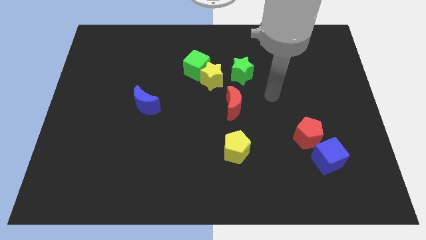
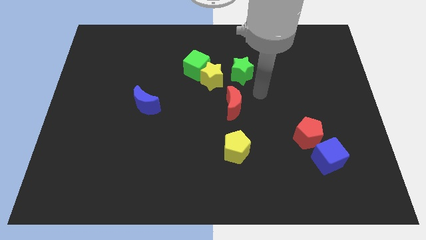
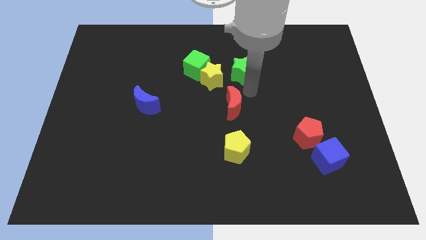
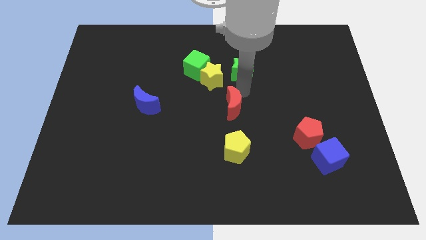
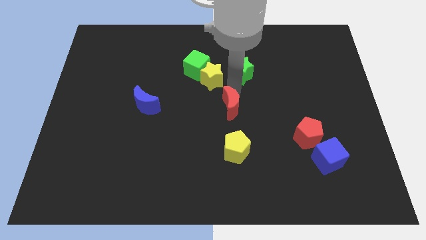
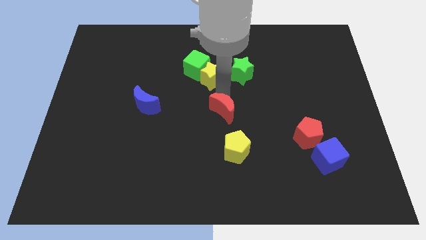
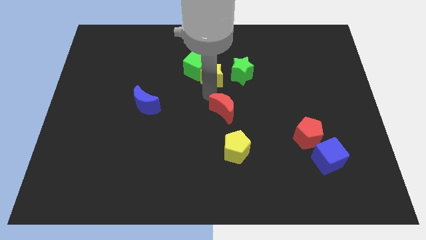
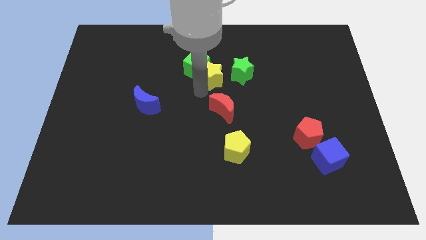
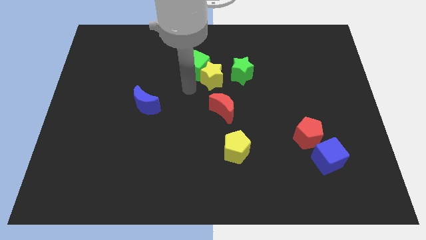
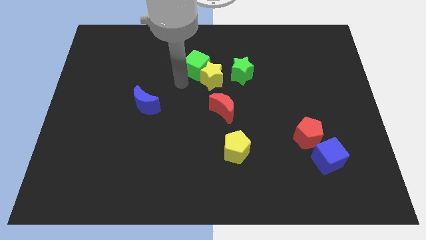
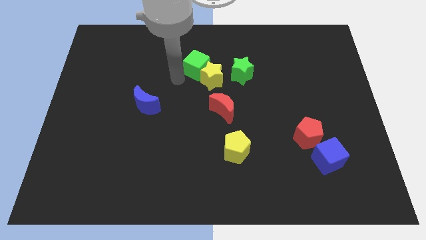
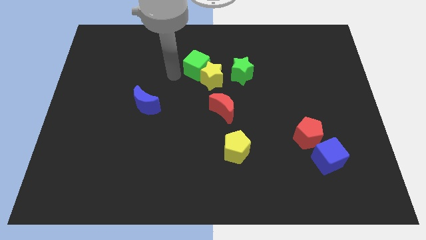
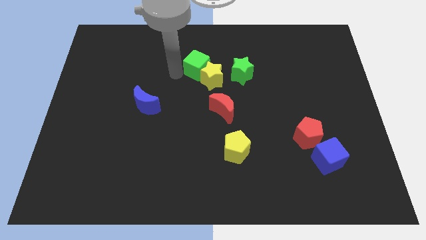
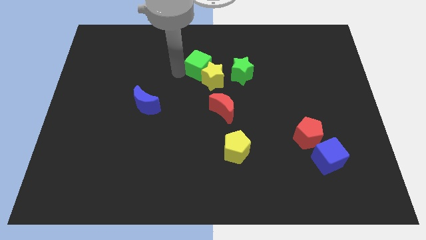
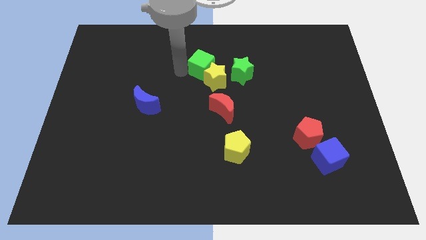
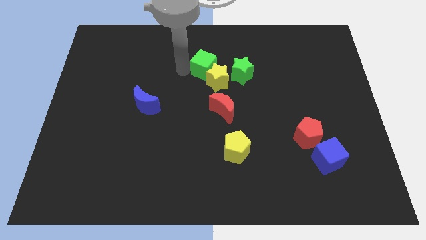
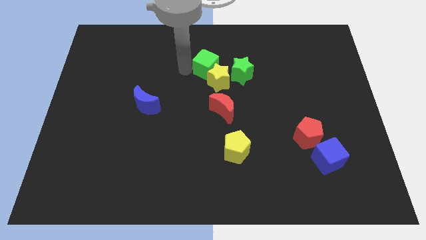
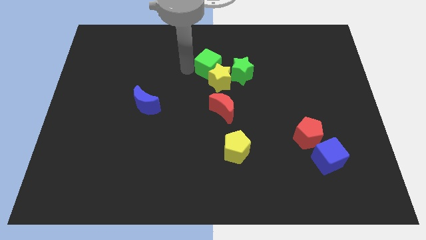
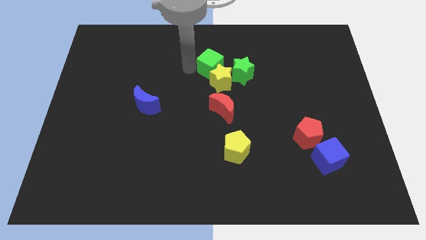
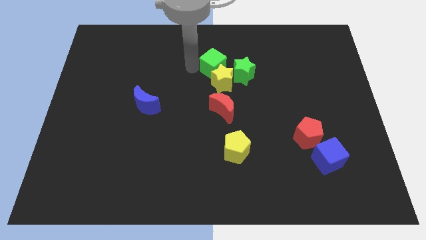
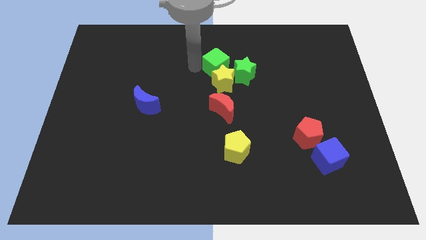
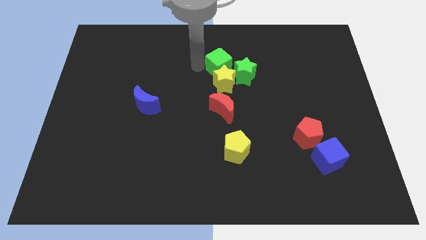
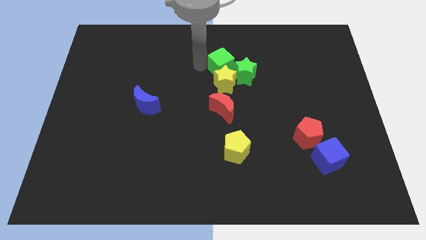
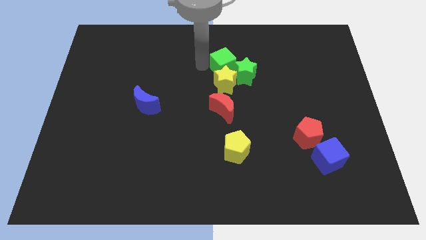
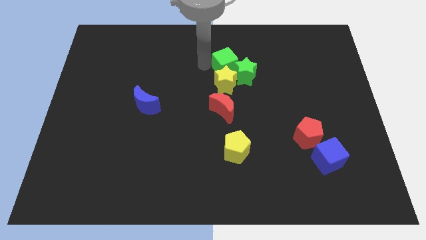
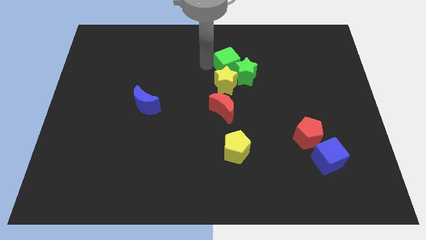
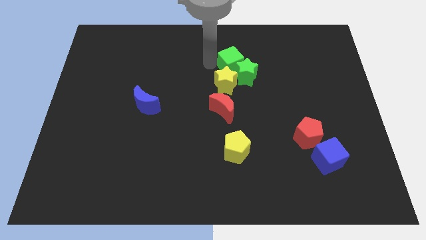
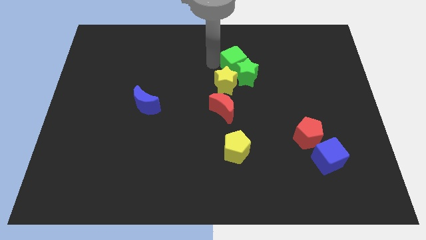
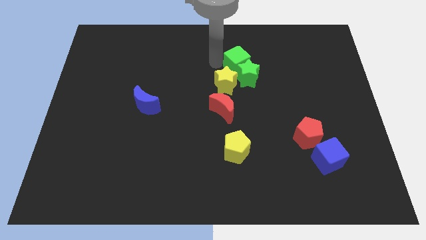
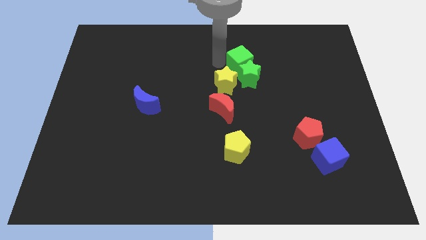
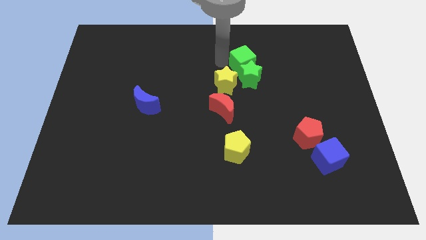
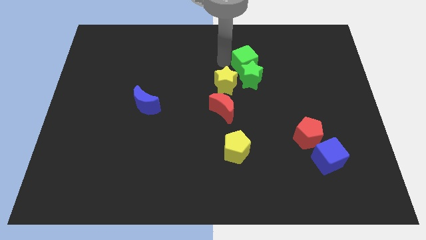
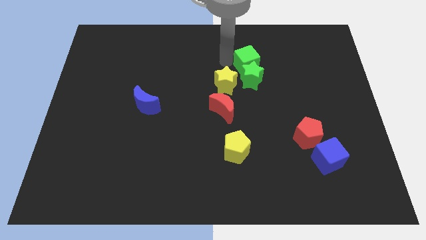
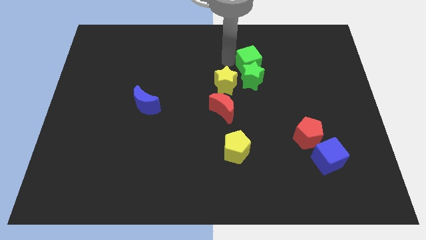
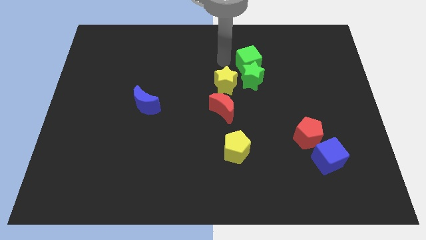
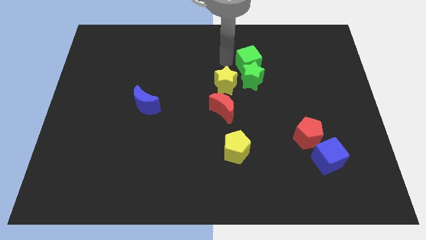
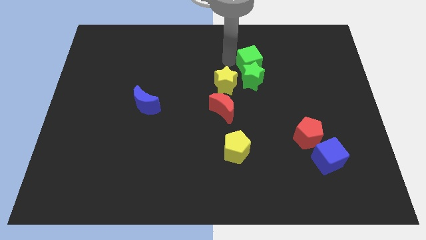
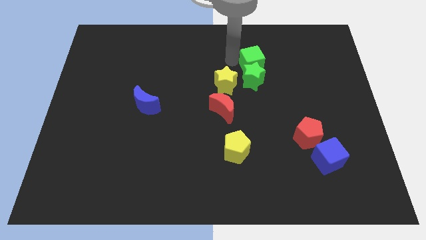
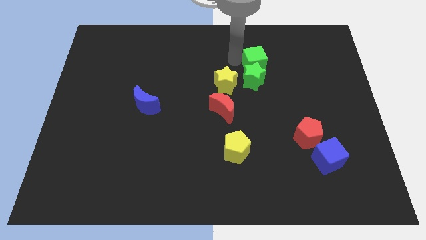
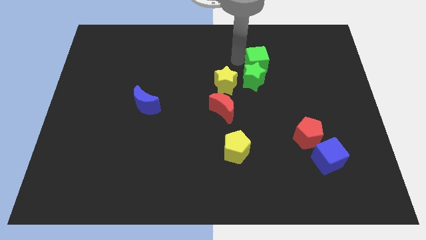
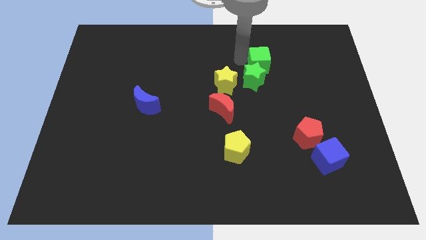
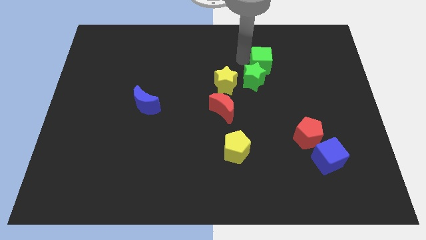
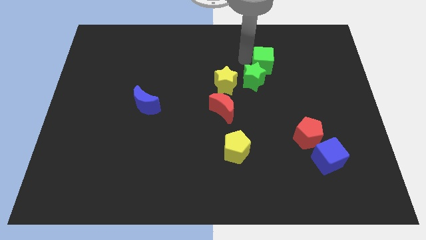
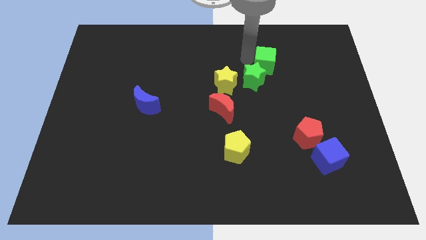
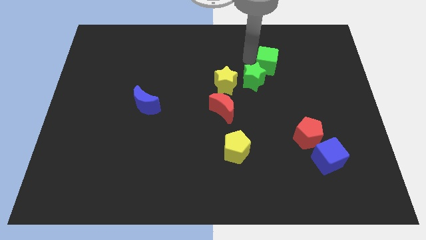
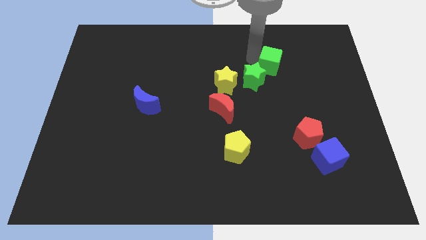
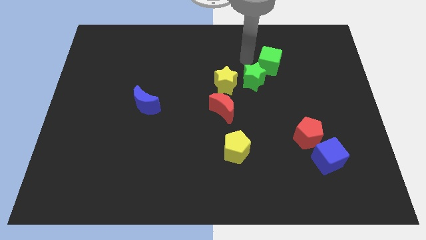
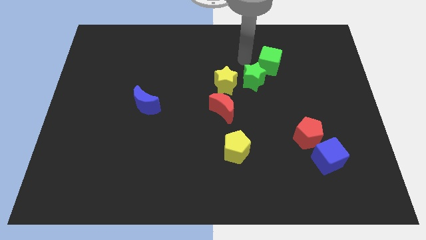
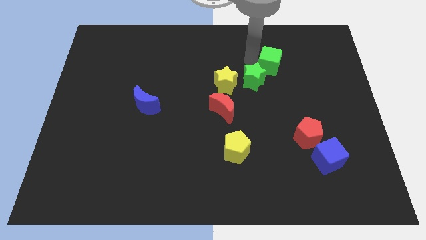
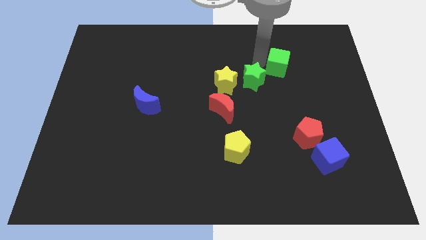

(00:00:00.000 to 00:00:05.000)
move the green cube to the right

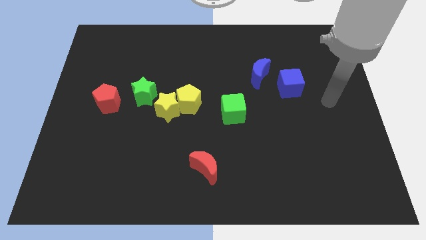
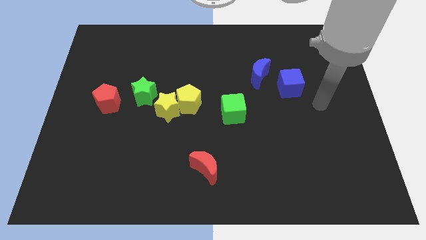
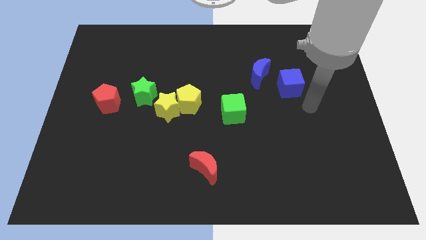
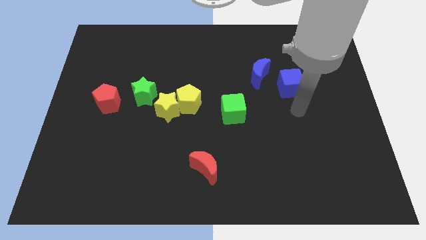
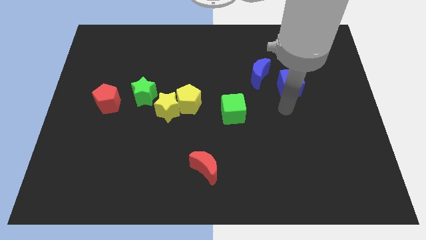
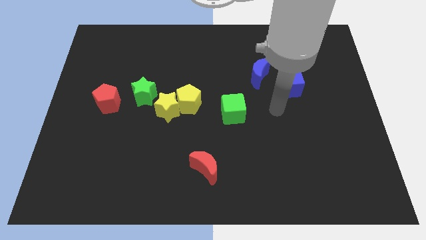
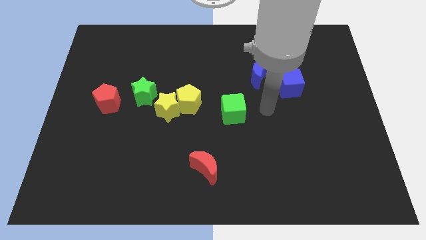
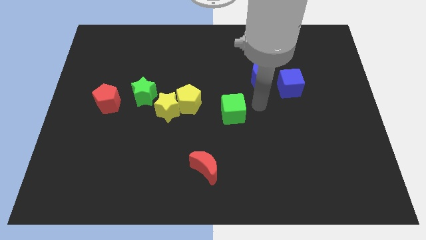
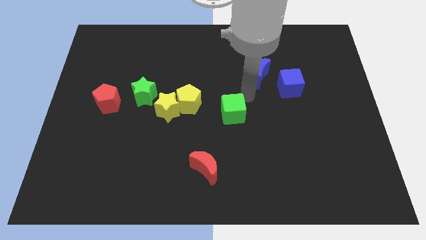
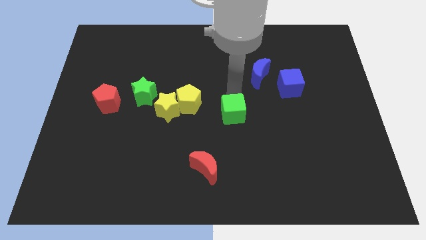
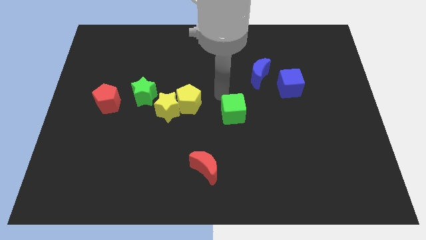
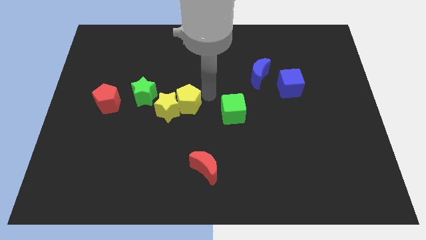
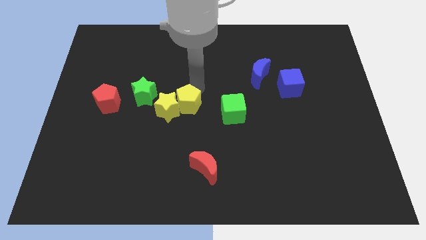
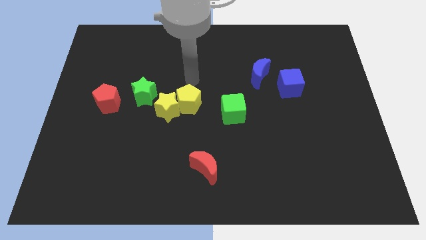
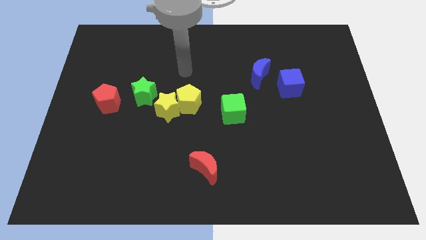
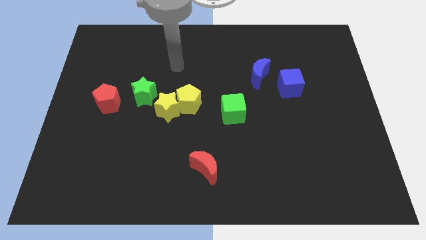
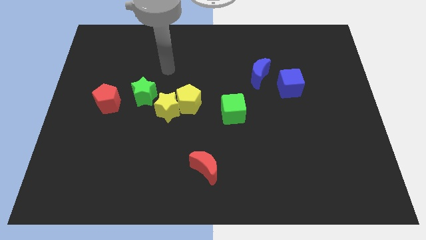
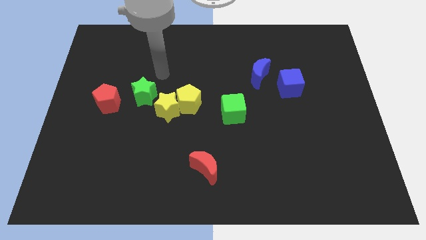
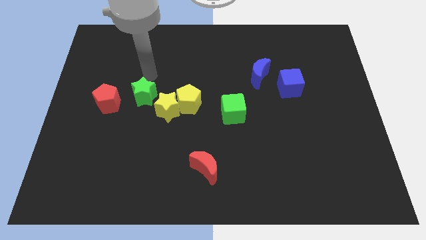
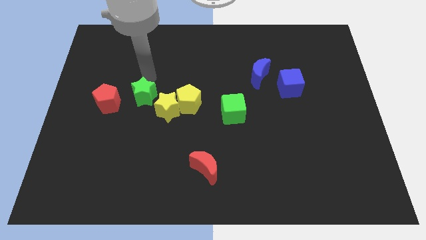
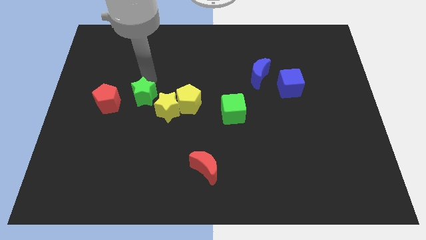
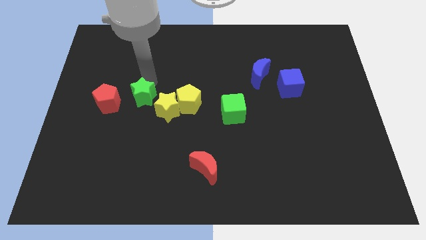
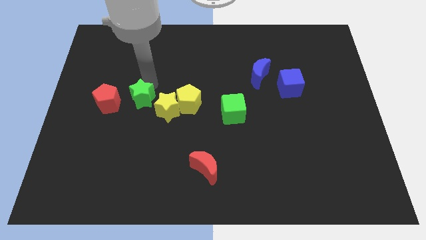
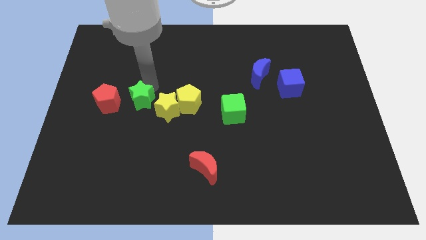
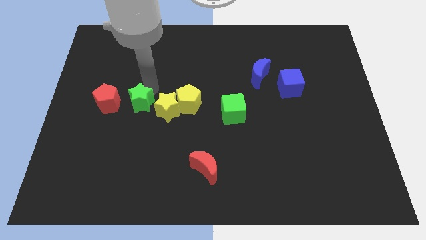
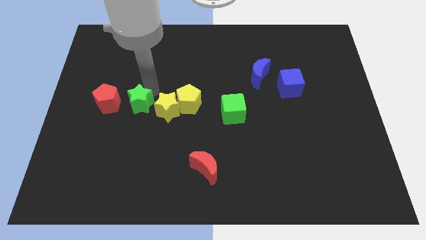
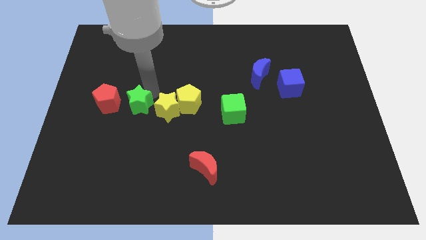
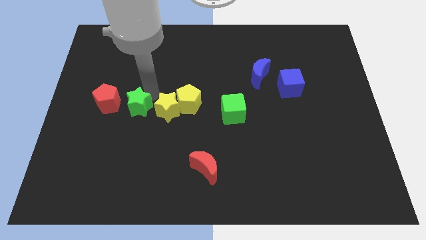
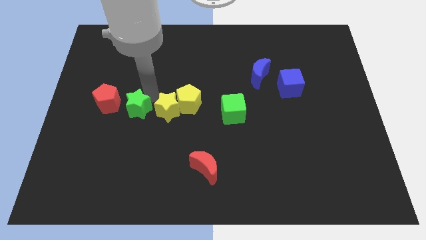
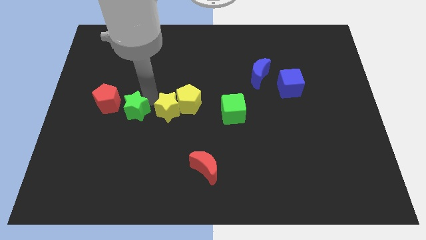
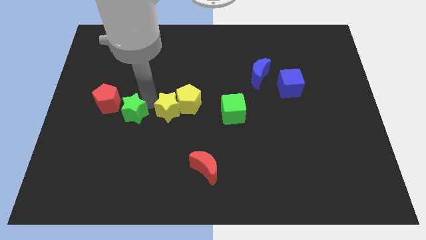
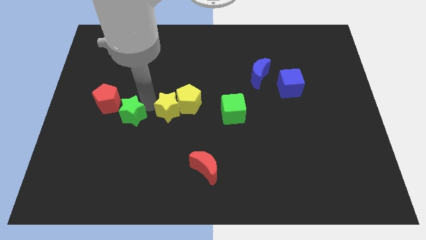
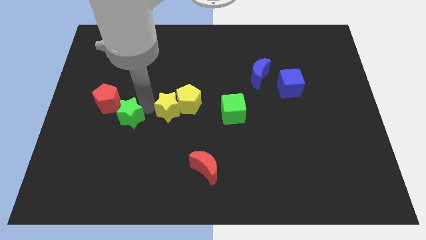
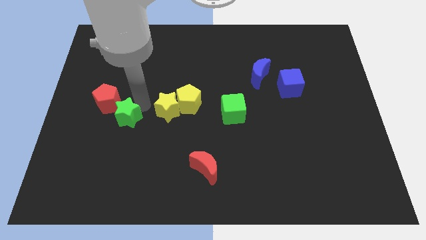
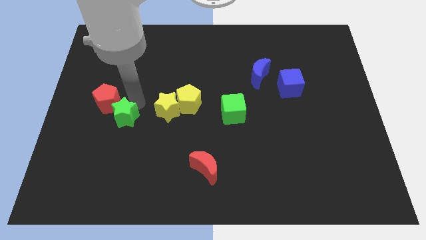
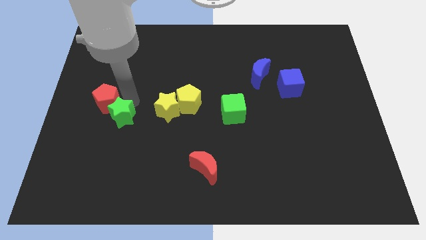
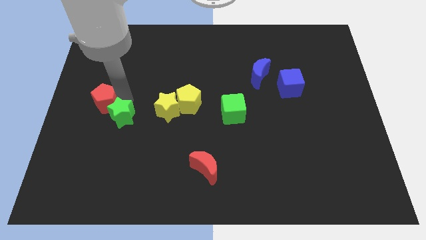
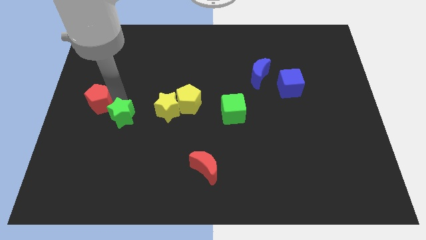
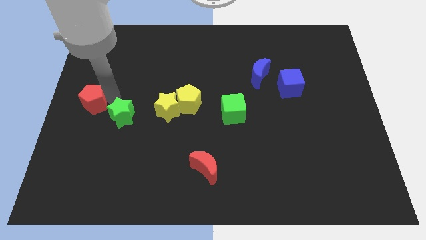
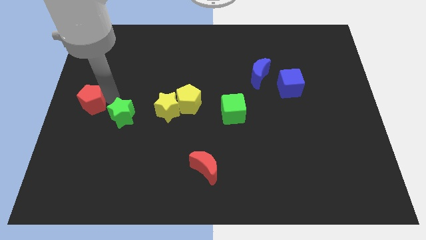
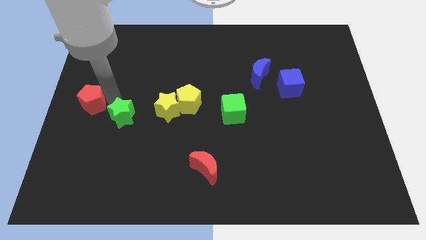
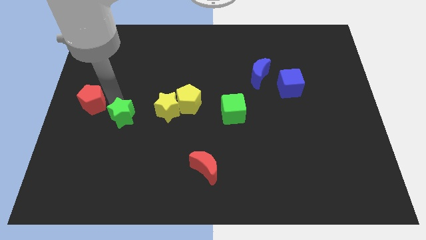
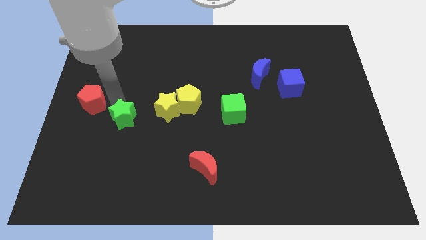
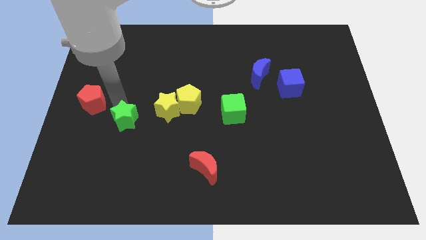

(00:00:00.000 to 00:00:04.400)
move the green star down a little bit
